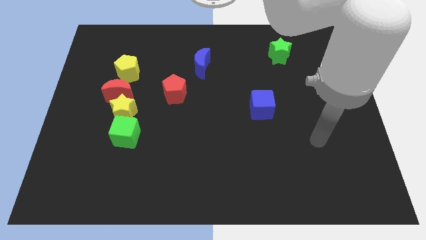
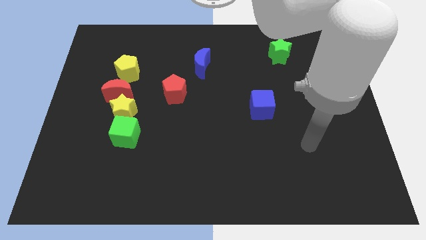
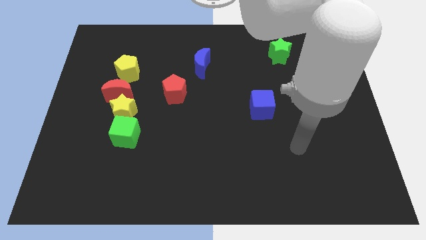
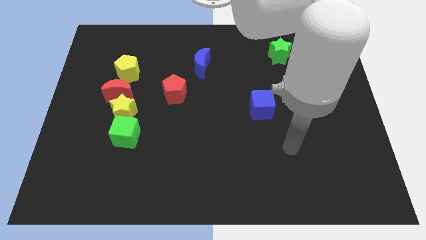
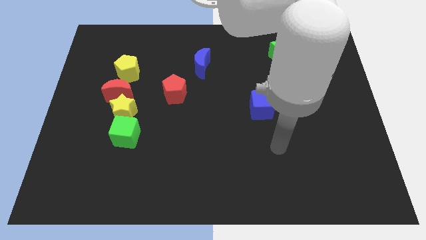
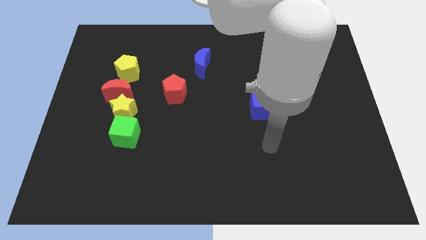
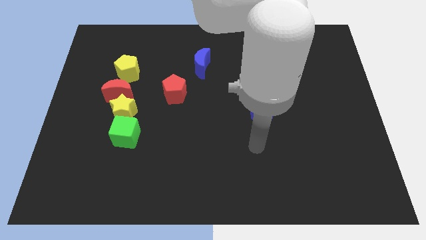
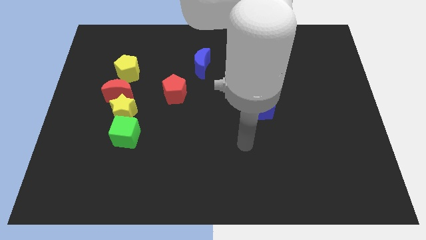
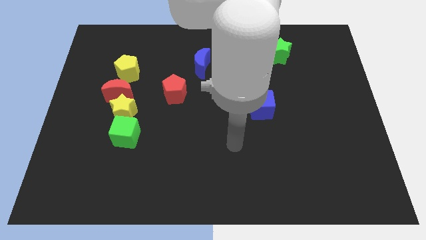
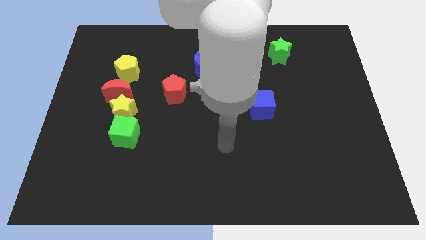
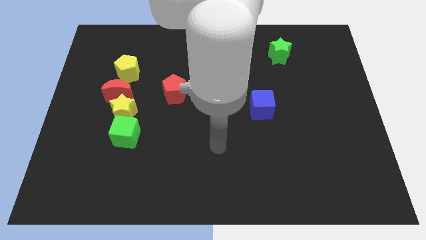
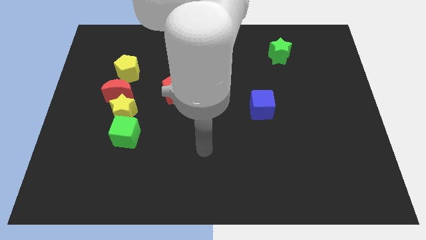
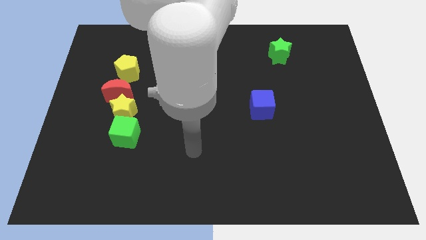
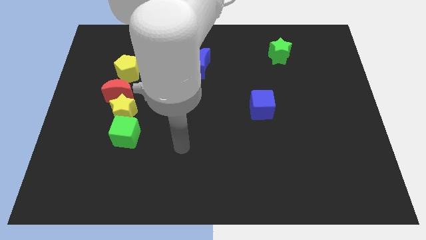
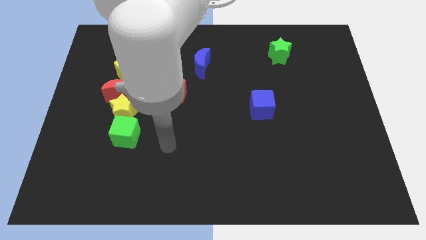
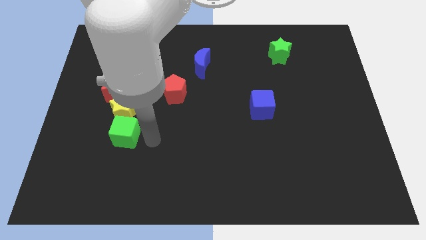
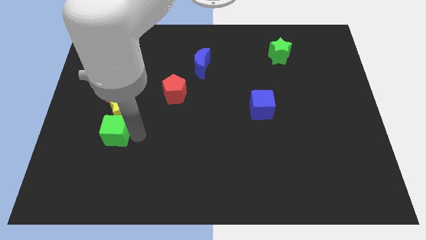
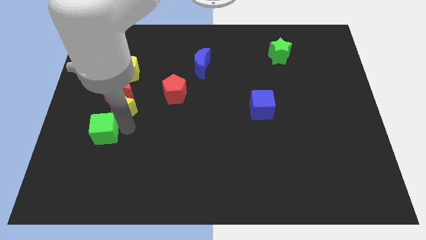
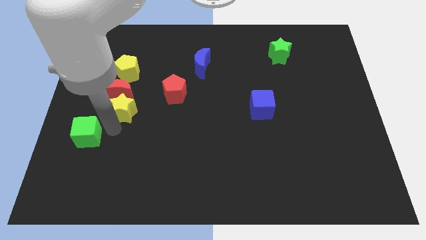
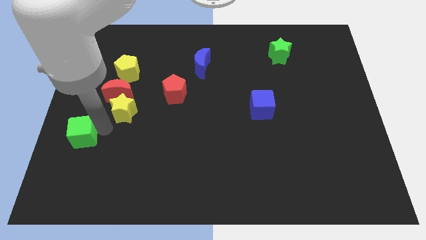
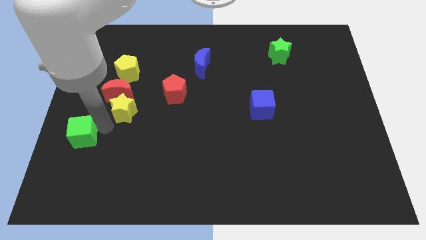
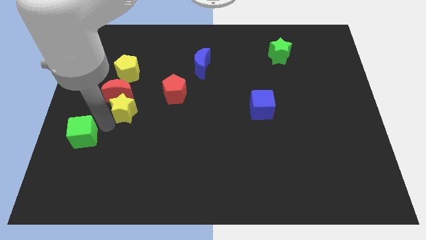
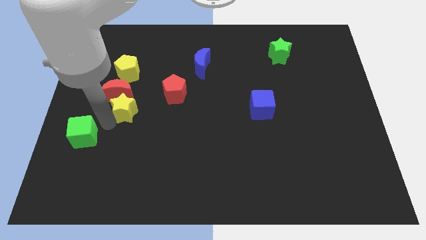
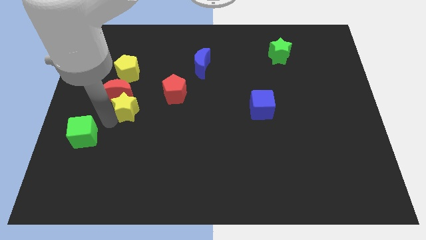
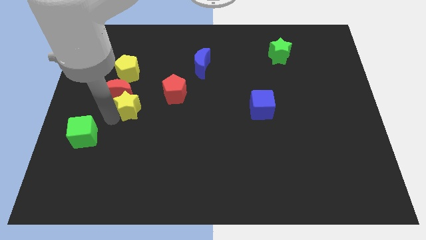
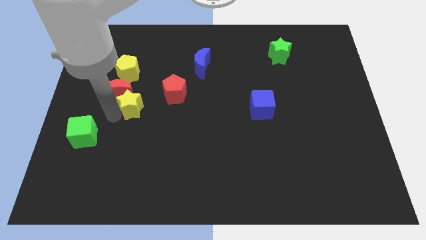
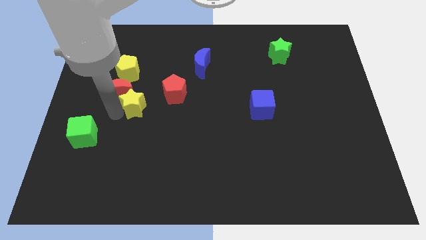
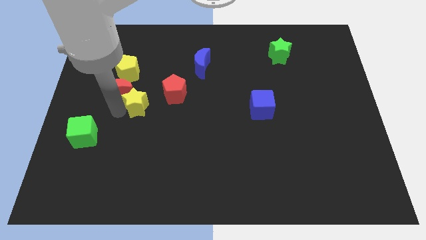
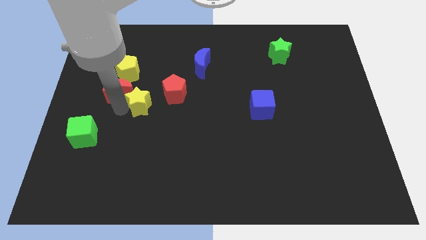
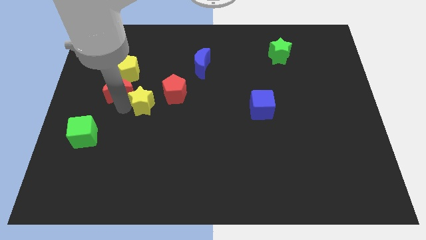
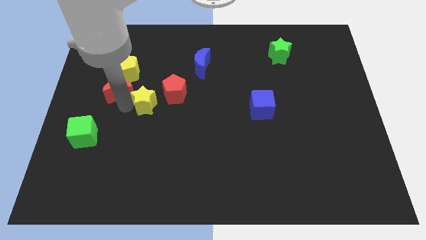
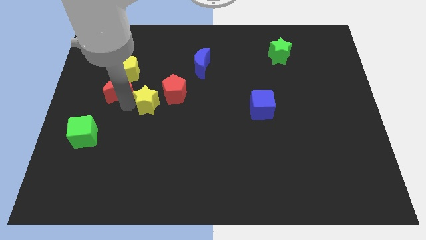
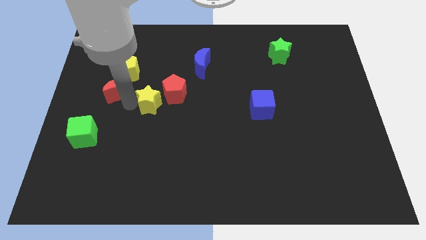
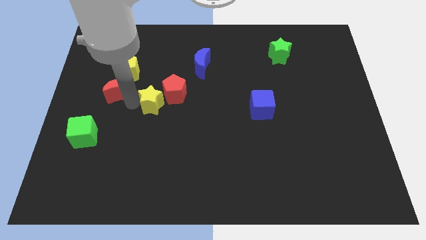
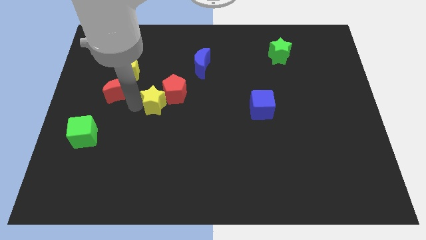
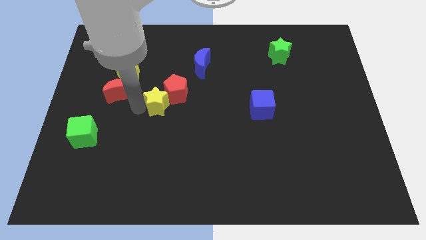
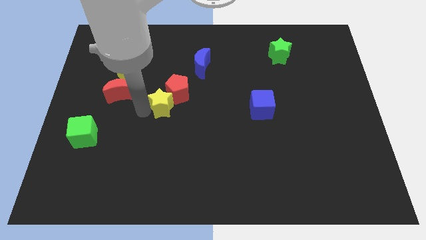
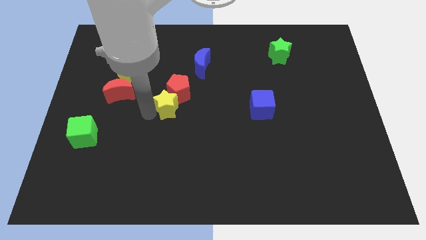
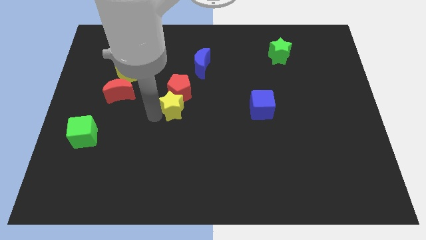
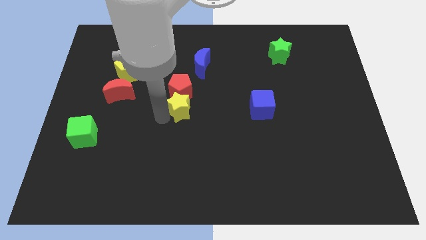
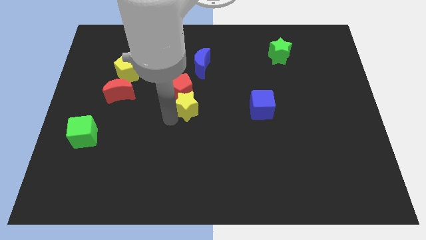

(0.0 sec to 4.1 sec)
slightly slide the yellow star upwards and to the right

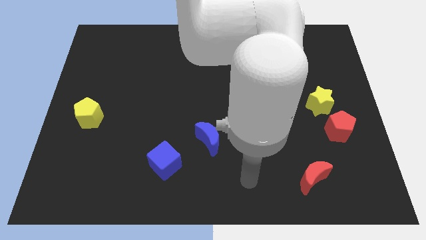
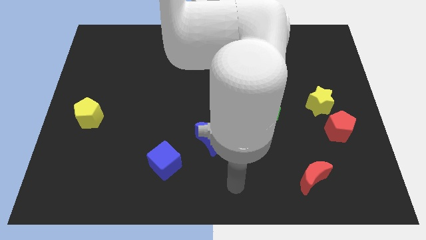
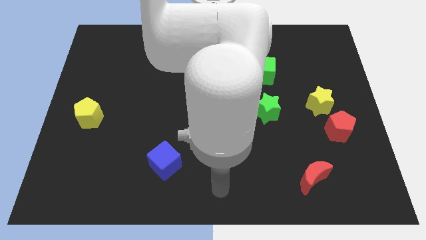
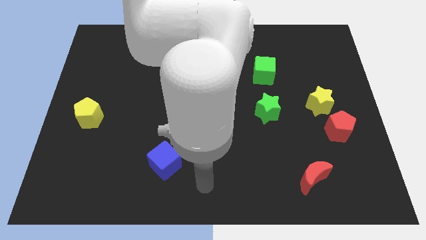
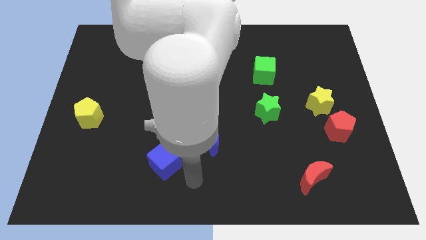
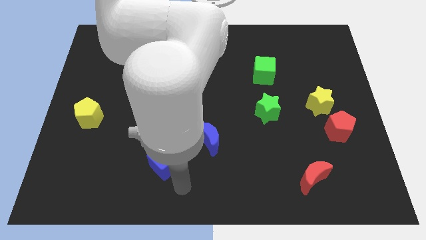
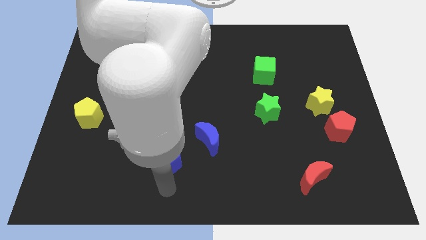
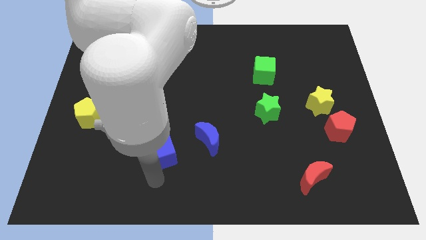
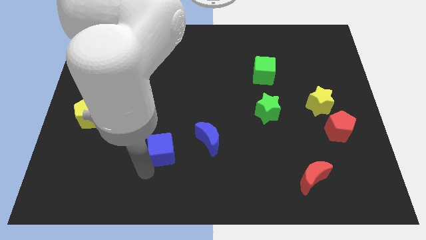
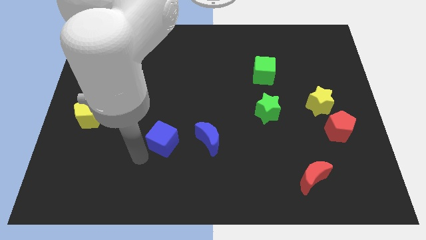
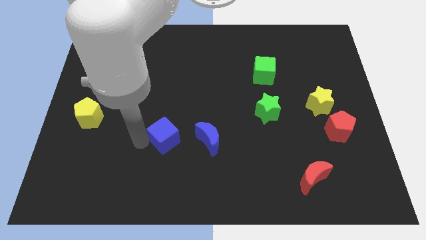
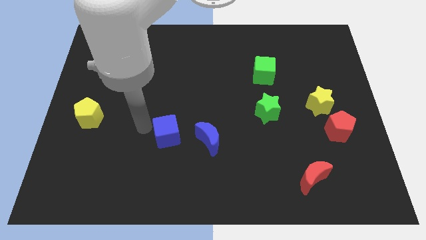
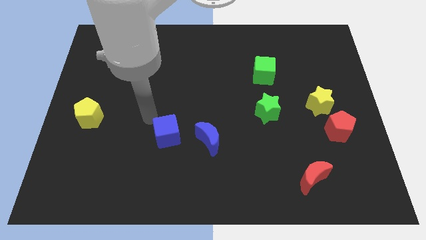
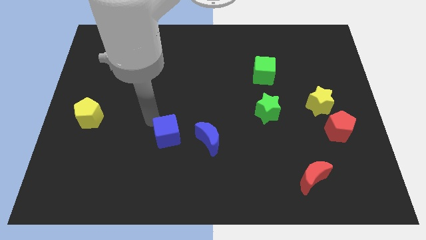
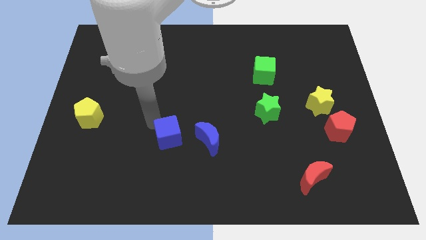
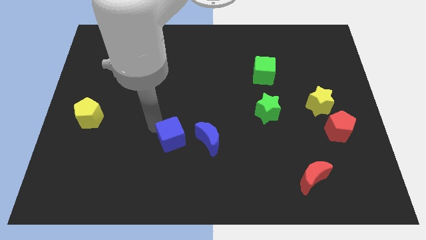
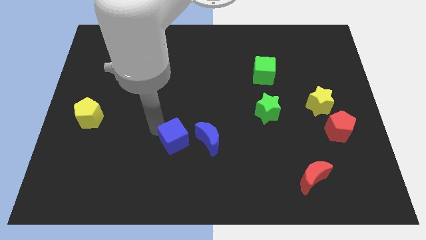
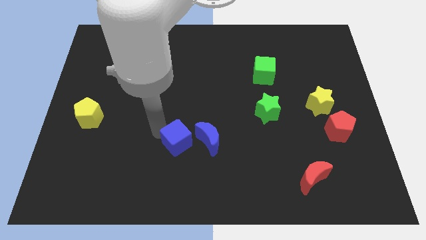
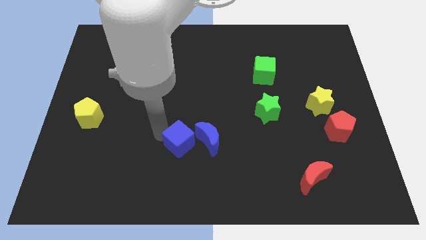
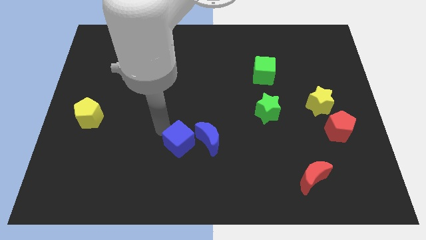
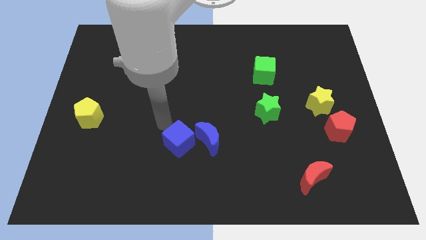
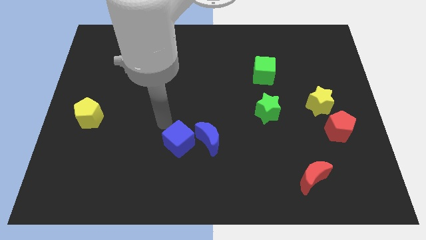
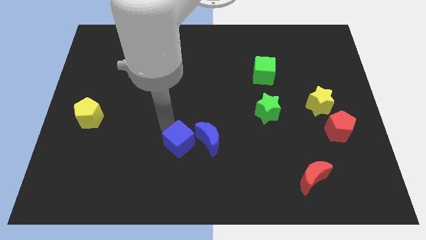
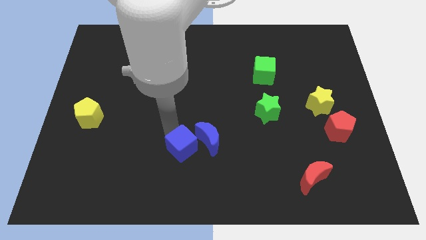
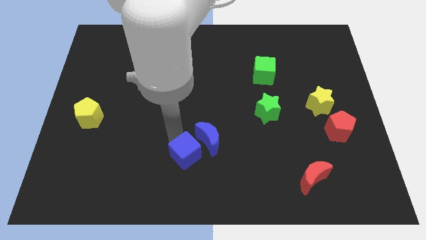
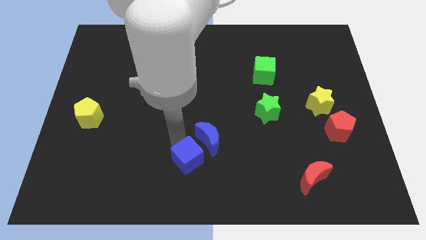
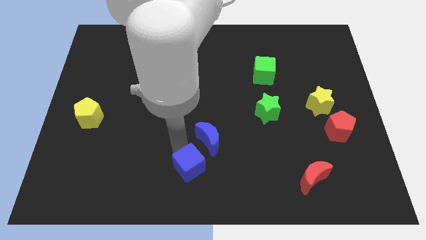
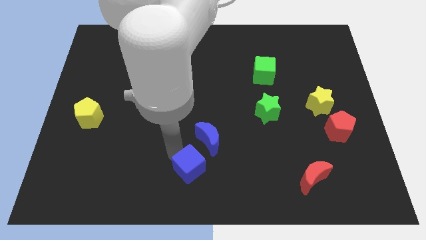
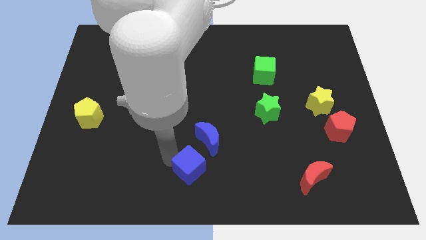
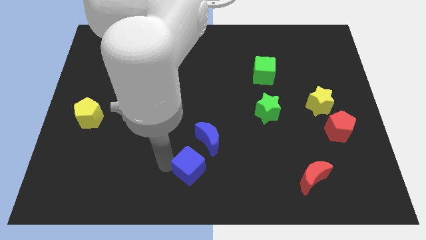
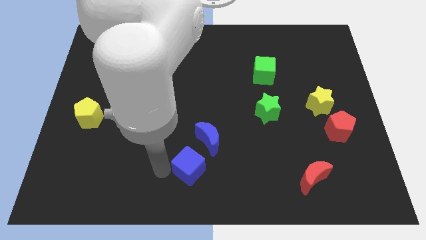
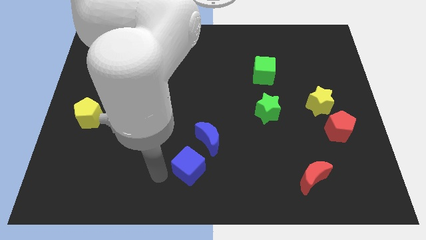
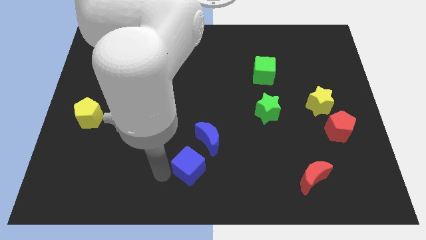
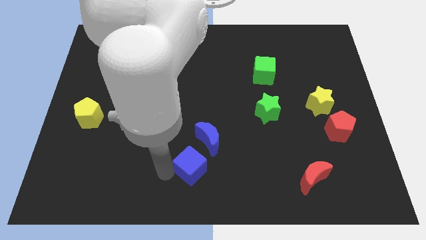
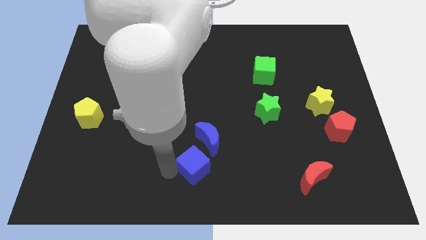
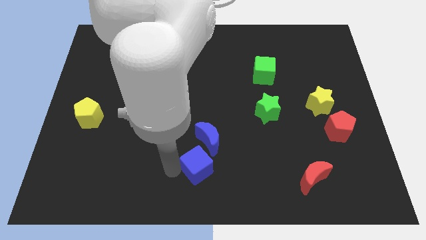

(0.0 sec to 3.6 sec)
slightly push the blue cube to the right

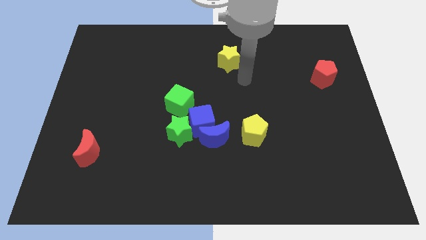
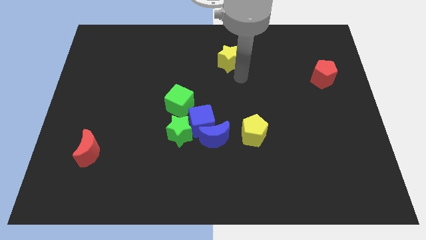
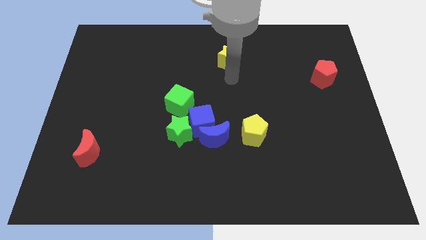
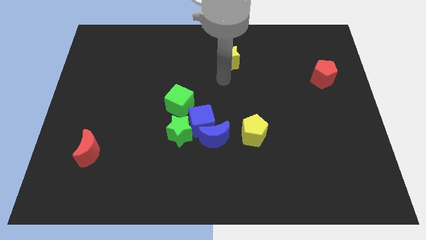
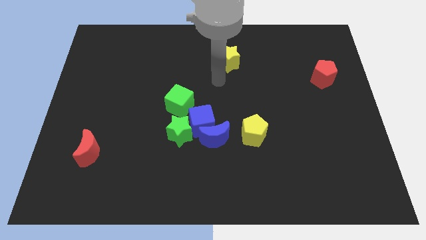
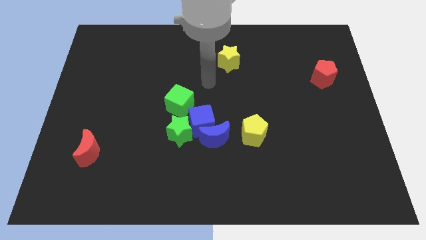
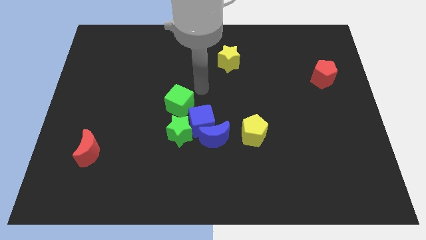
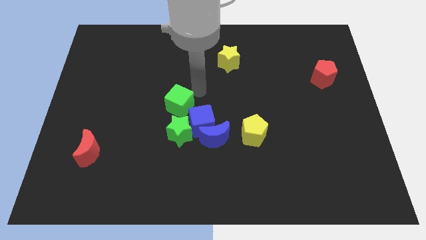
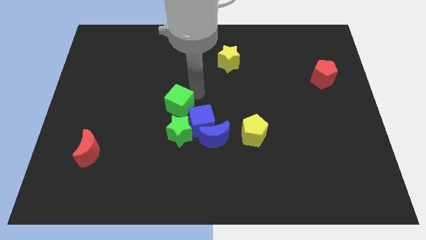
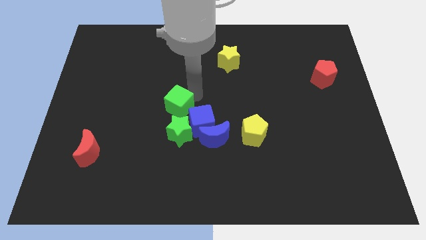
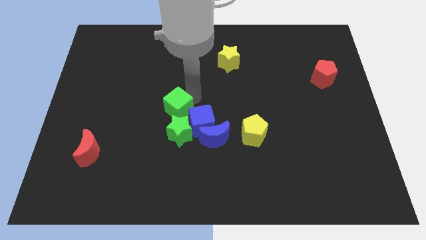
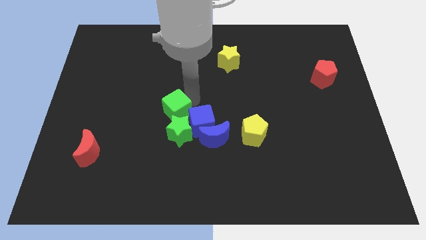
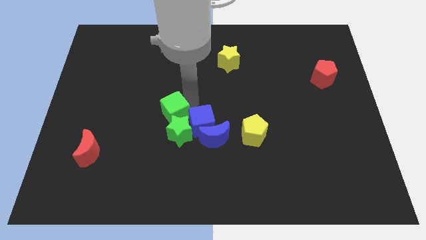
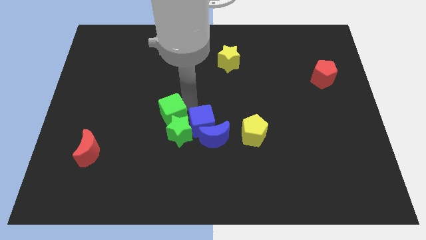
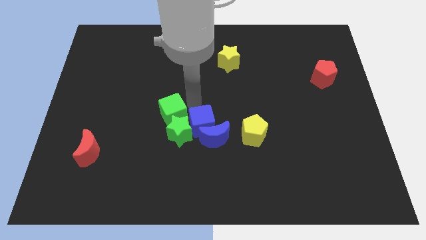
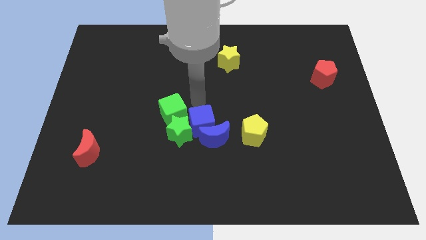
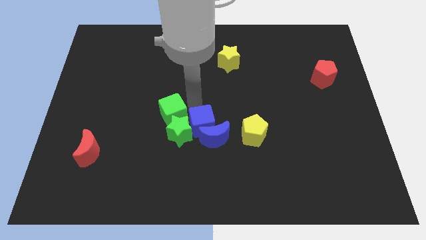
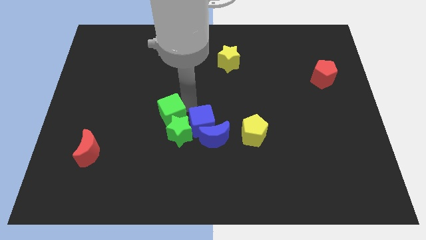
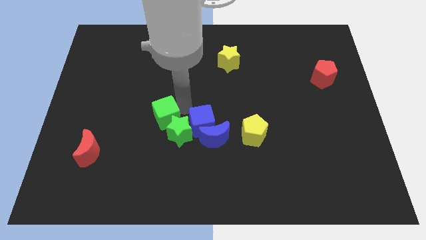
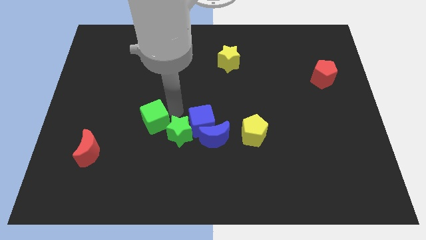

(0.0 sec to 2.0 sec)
push the green cube a little downwards and to the left diagonally
